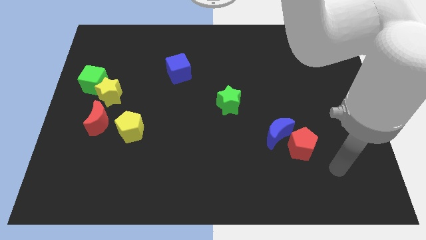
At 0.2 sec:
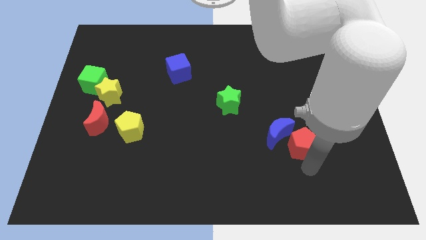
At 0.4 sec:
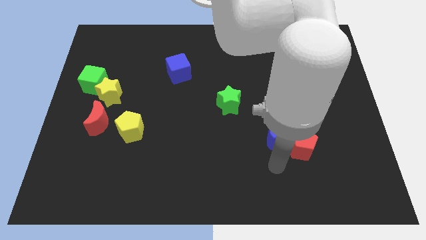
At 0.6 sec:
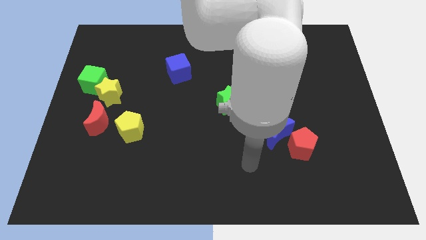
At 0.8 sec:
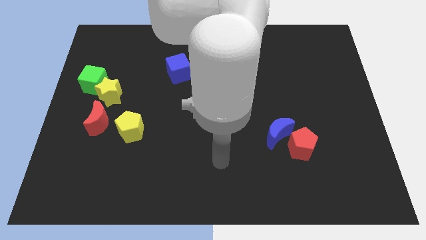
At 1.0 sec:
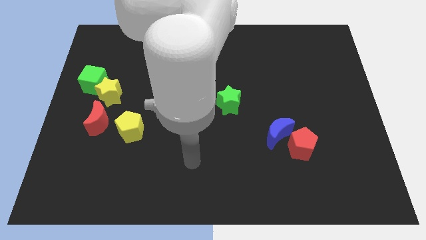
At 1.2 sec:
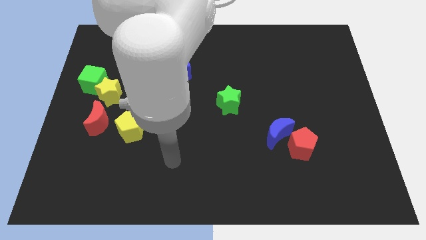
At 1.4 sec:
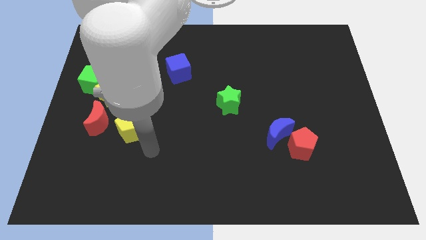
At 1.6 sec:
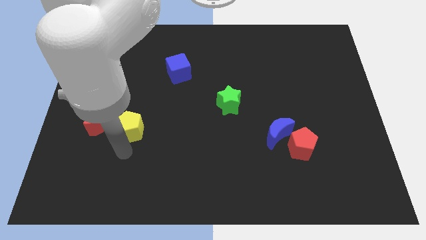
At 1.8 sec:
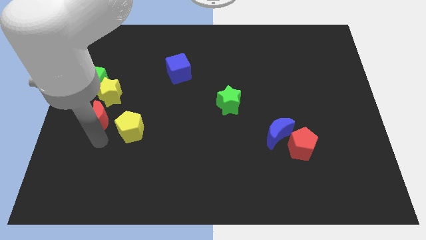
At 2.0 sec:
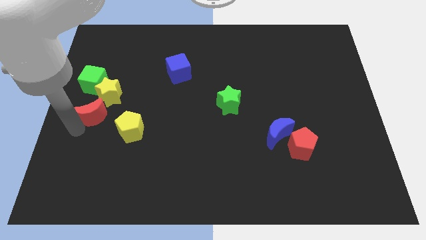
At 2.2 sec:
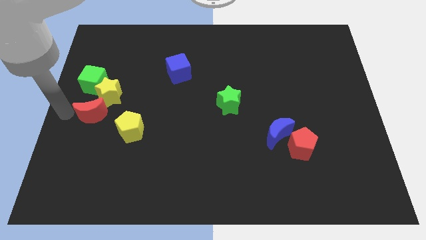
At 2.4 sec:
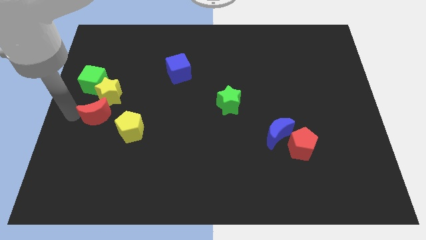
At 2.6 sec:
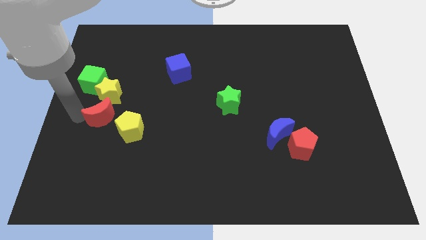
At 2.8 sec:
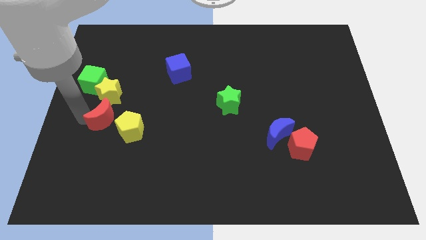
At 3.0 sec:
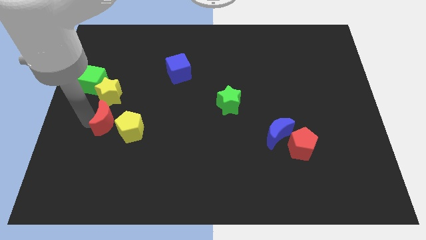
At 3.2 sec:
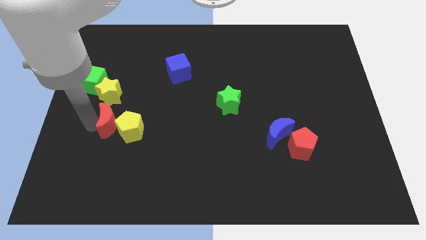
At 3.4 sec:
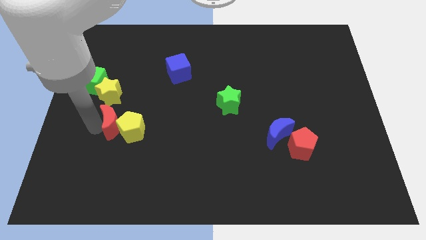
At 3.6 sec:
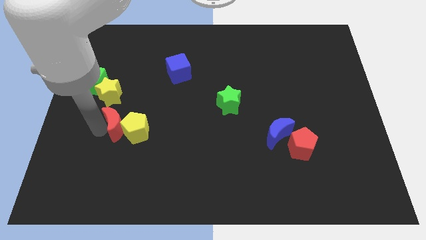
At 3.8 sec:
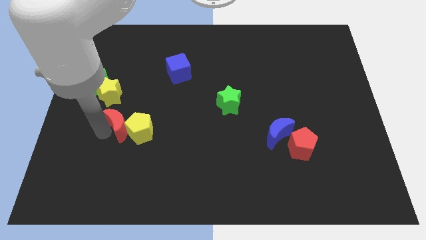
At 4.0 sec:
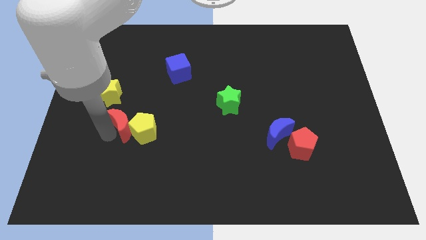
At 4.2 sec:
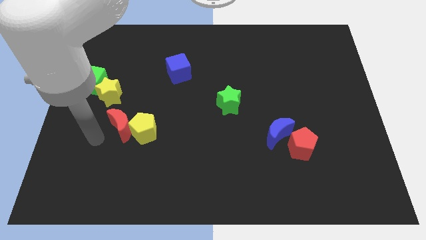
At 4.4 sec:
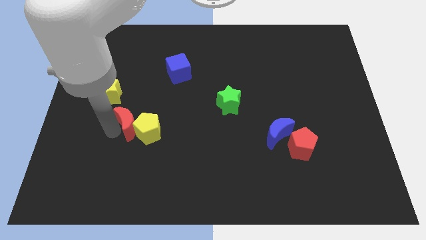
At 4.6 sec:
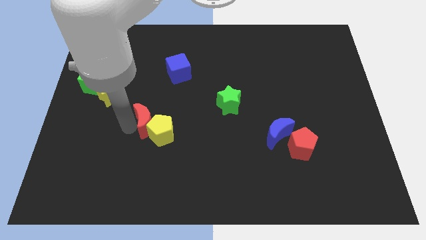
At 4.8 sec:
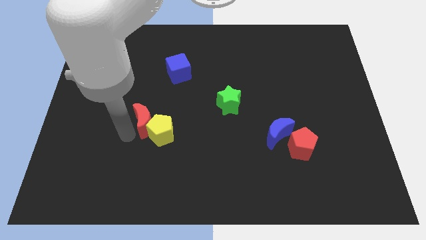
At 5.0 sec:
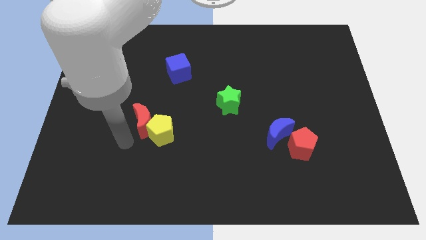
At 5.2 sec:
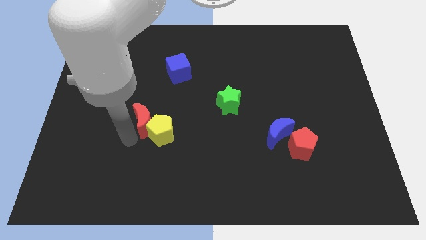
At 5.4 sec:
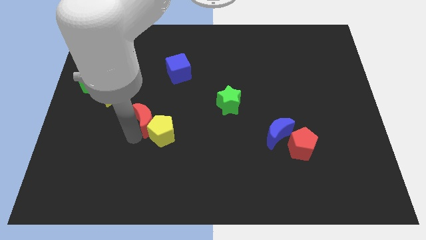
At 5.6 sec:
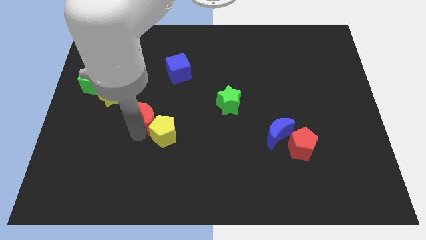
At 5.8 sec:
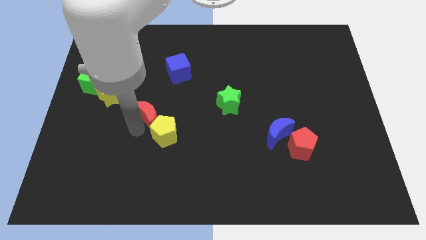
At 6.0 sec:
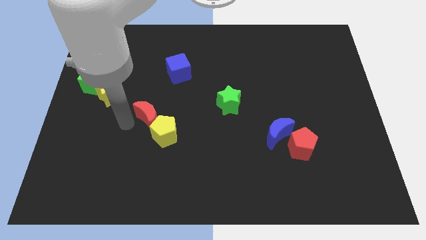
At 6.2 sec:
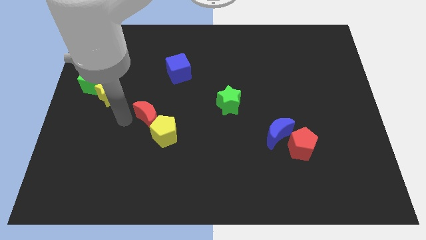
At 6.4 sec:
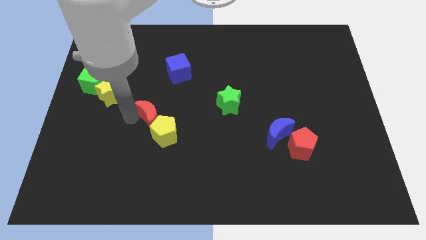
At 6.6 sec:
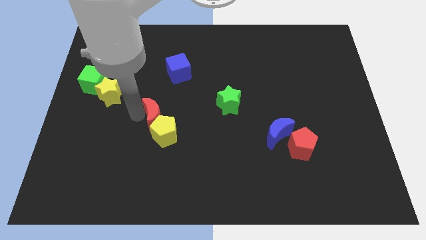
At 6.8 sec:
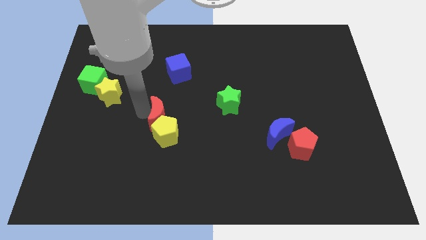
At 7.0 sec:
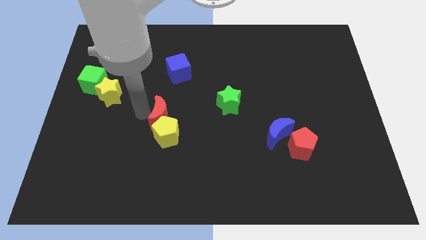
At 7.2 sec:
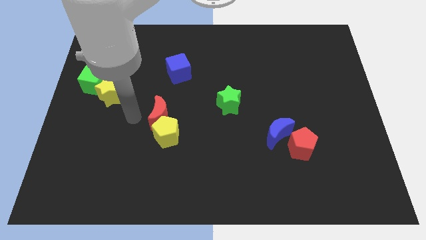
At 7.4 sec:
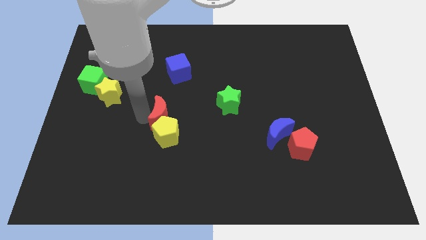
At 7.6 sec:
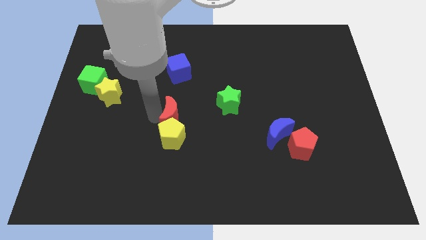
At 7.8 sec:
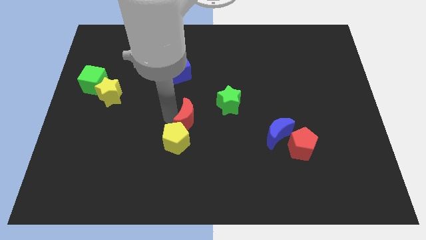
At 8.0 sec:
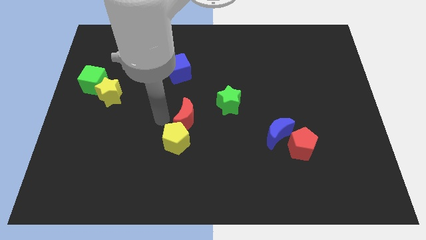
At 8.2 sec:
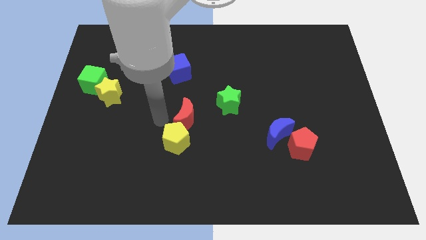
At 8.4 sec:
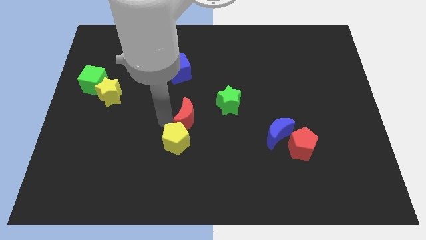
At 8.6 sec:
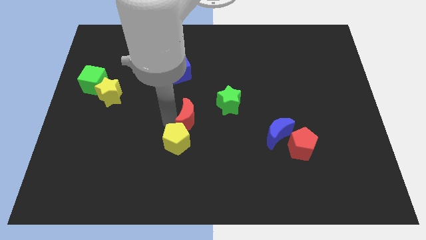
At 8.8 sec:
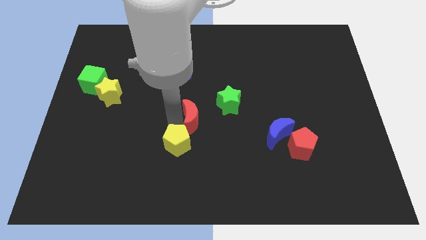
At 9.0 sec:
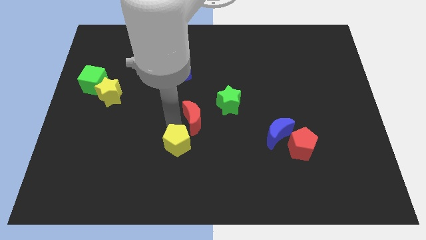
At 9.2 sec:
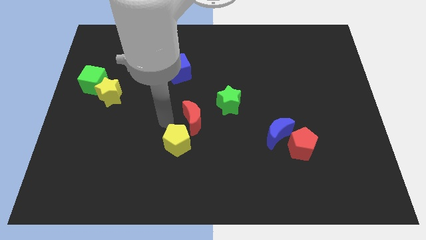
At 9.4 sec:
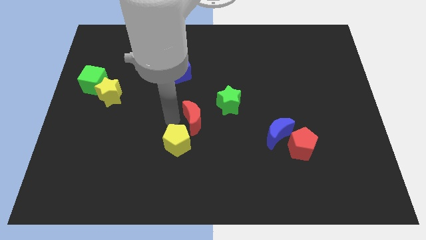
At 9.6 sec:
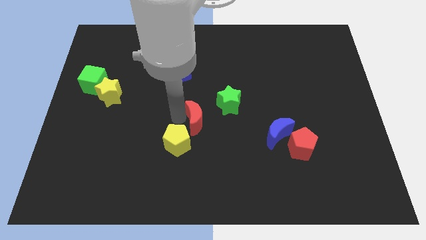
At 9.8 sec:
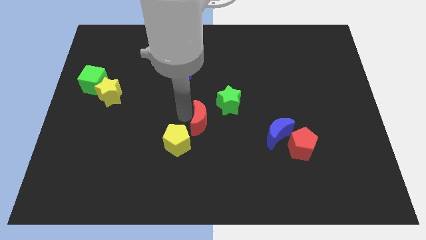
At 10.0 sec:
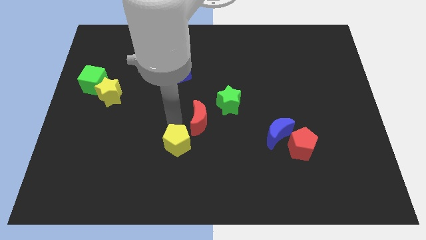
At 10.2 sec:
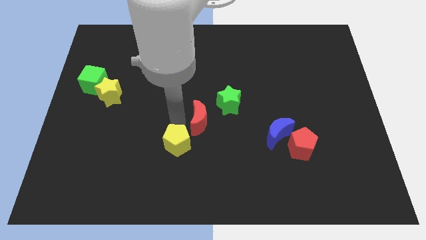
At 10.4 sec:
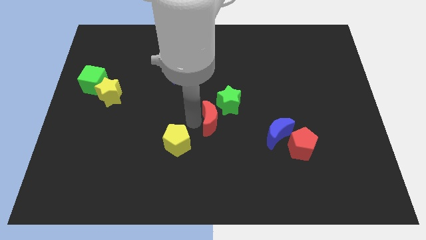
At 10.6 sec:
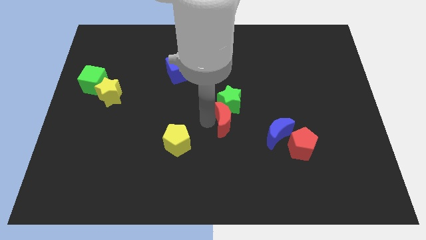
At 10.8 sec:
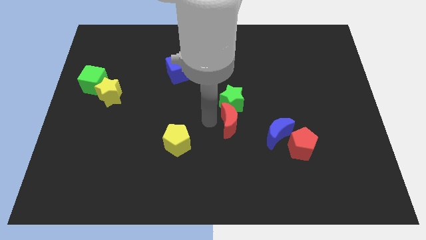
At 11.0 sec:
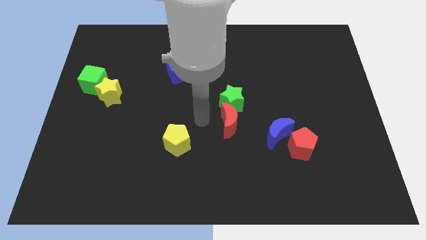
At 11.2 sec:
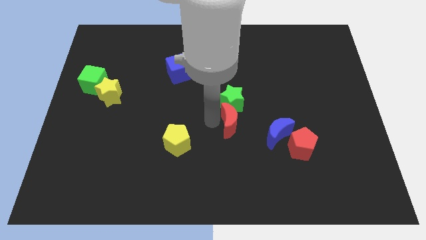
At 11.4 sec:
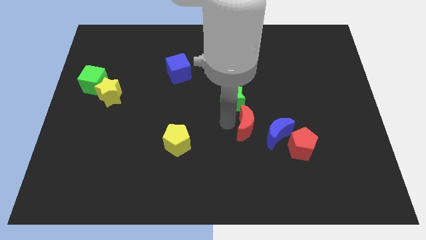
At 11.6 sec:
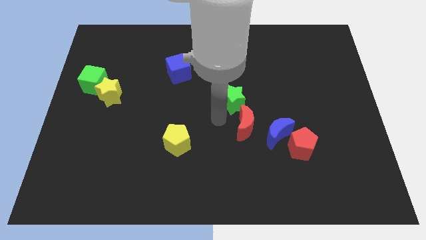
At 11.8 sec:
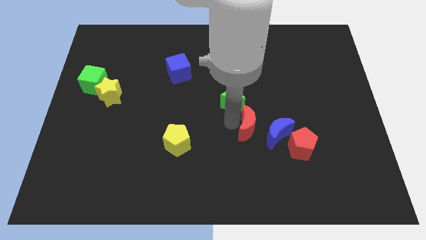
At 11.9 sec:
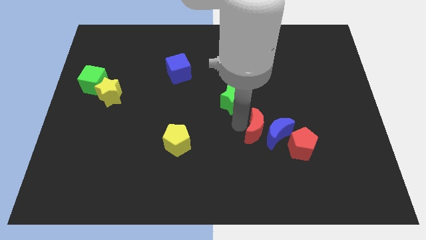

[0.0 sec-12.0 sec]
move the red moon towards the blue moon

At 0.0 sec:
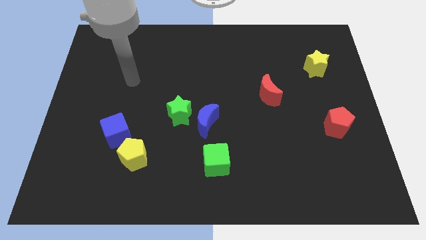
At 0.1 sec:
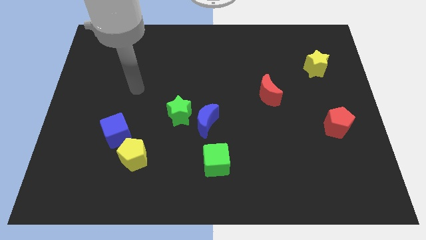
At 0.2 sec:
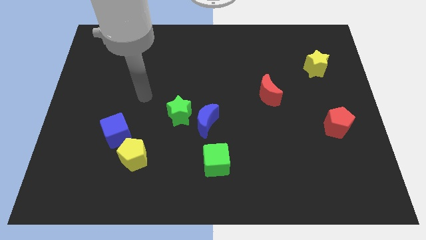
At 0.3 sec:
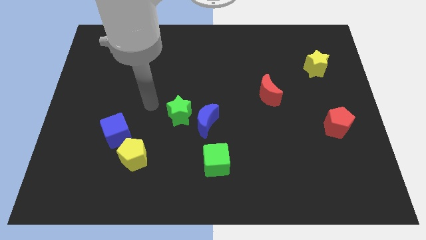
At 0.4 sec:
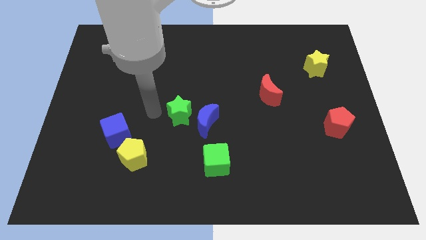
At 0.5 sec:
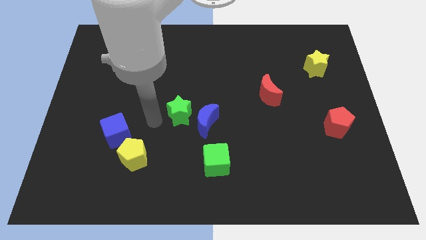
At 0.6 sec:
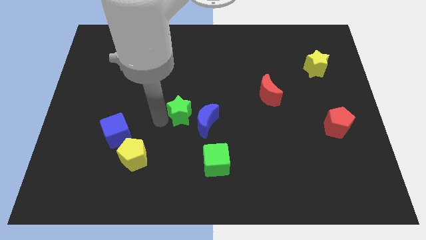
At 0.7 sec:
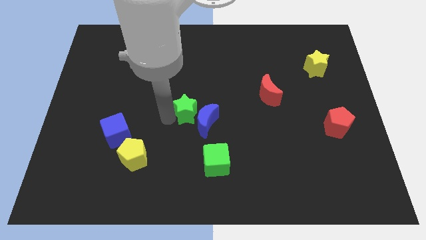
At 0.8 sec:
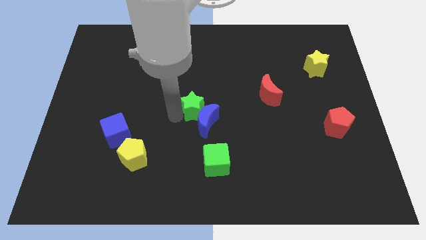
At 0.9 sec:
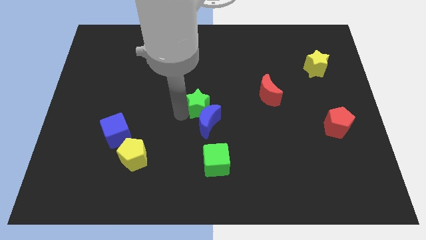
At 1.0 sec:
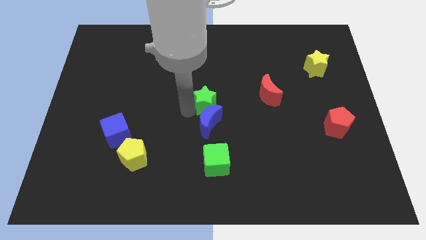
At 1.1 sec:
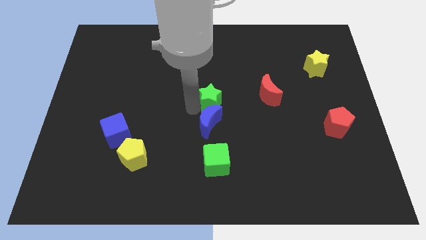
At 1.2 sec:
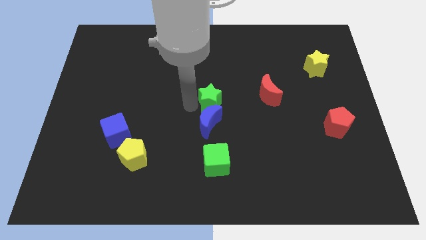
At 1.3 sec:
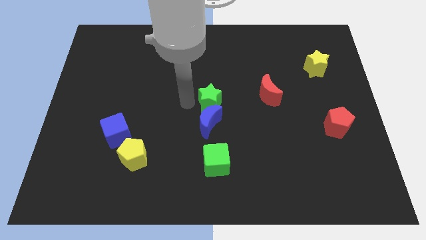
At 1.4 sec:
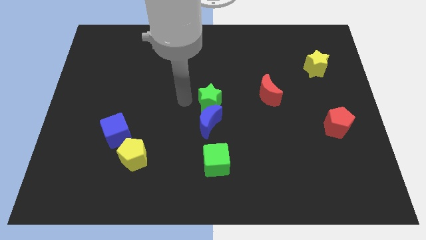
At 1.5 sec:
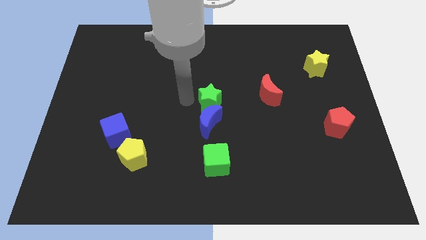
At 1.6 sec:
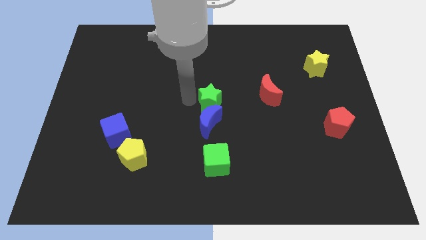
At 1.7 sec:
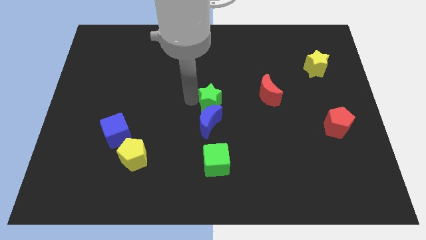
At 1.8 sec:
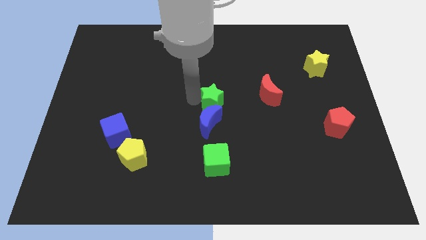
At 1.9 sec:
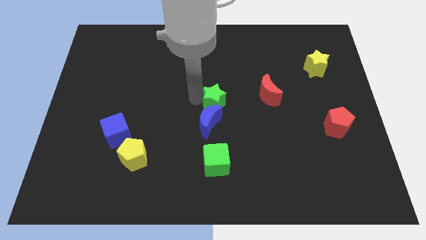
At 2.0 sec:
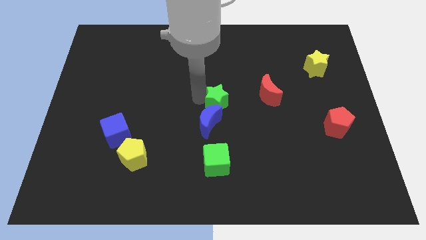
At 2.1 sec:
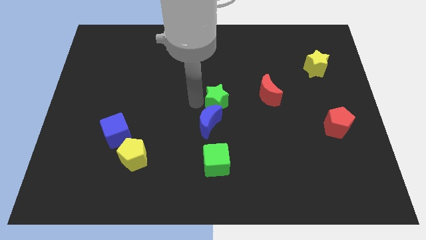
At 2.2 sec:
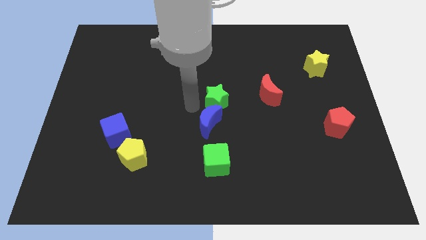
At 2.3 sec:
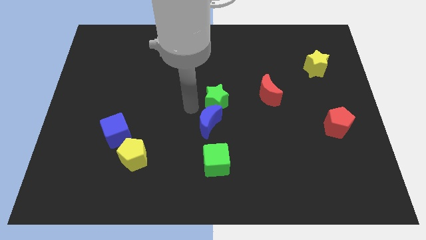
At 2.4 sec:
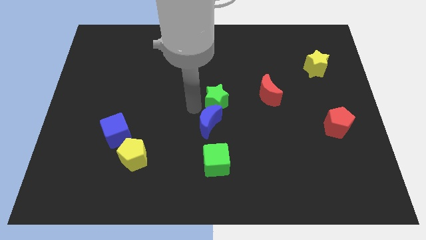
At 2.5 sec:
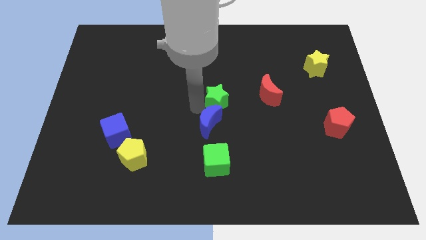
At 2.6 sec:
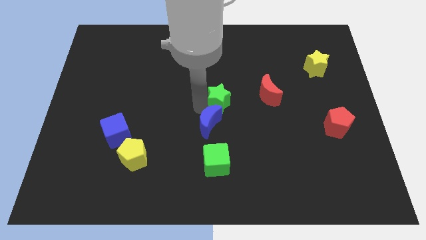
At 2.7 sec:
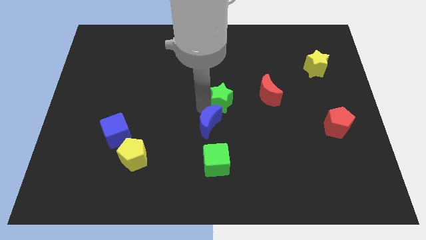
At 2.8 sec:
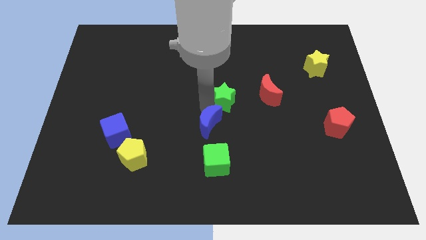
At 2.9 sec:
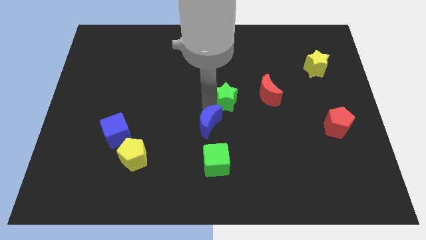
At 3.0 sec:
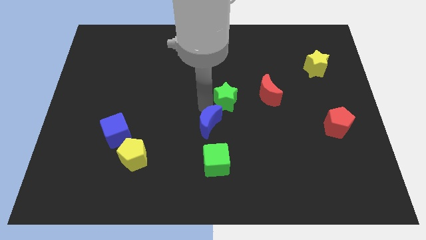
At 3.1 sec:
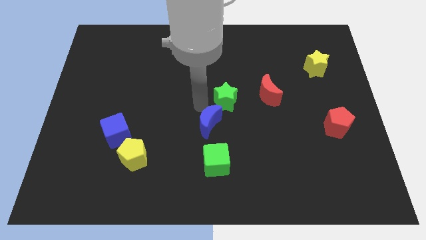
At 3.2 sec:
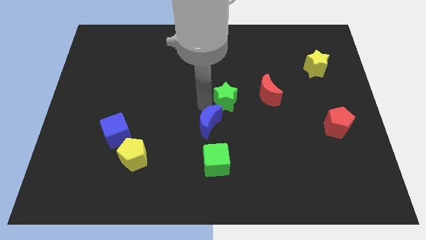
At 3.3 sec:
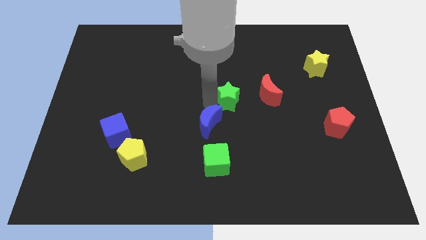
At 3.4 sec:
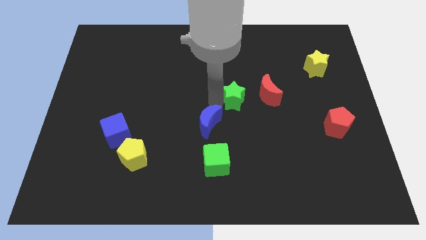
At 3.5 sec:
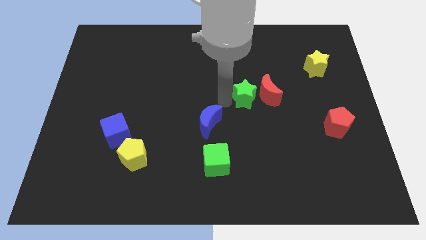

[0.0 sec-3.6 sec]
move the green star to the red moon
